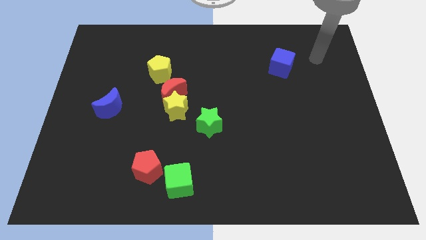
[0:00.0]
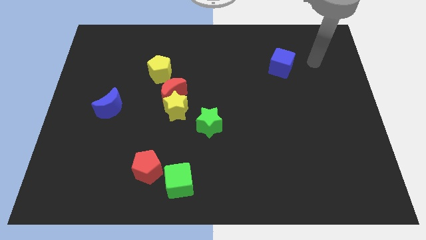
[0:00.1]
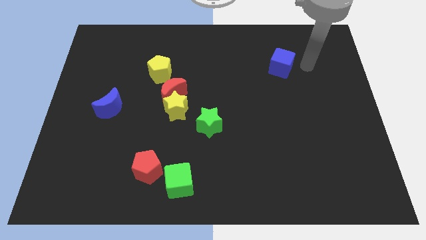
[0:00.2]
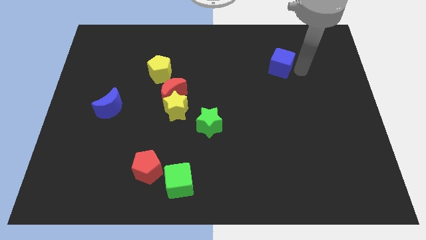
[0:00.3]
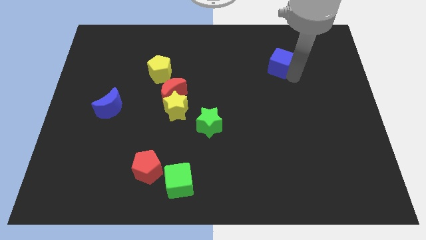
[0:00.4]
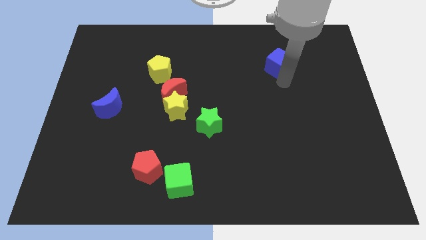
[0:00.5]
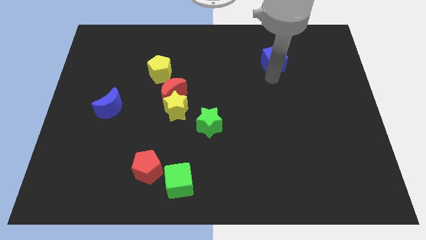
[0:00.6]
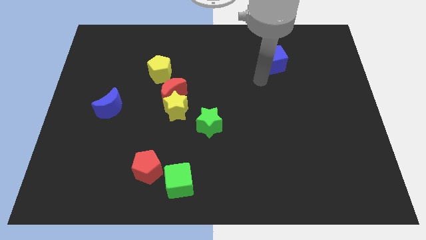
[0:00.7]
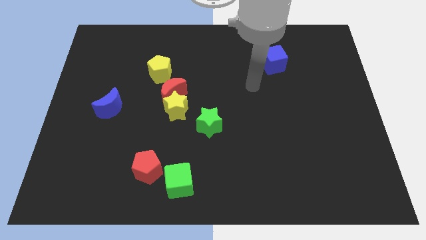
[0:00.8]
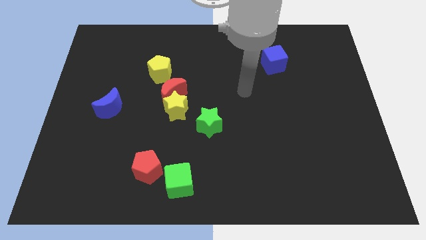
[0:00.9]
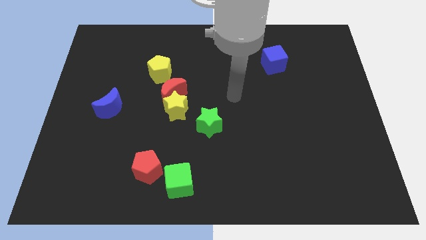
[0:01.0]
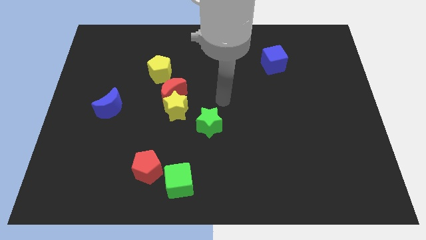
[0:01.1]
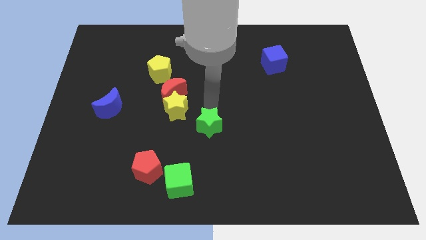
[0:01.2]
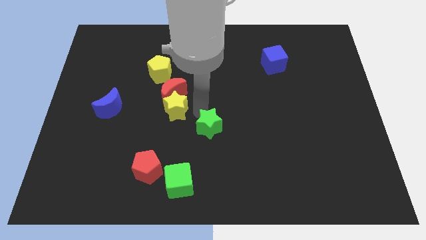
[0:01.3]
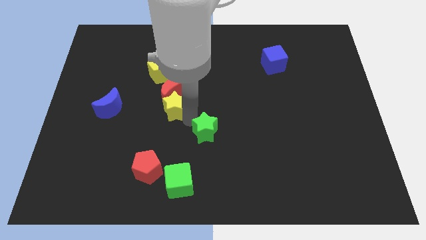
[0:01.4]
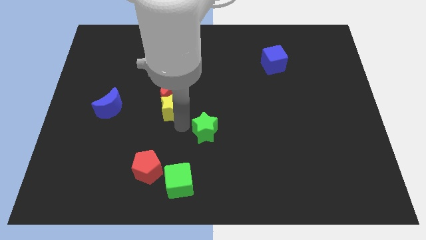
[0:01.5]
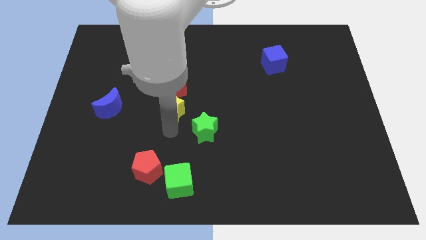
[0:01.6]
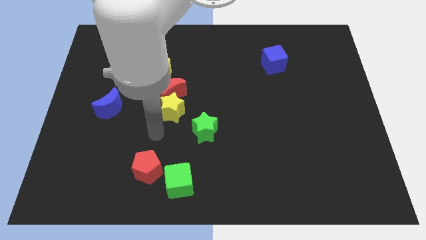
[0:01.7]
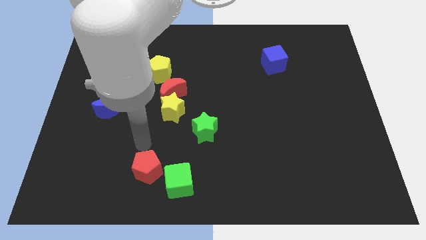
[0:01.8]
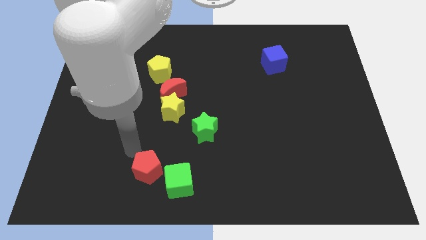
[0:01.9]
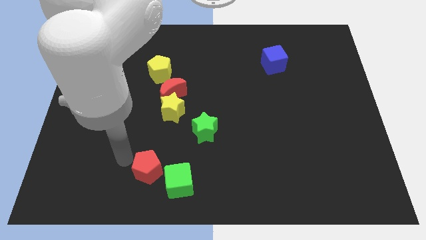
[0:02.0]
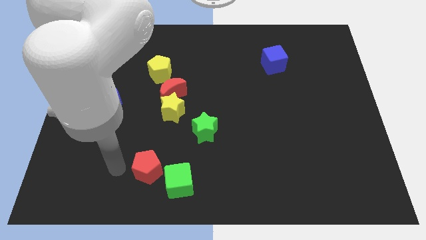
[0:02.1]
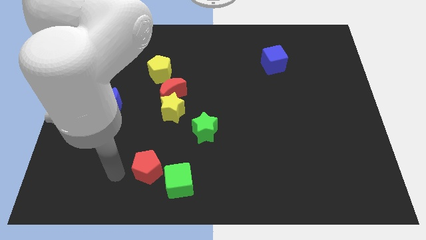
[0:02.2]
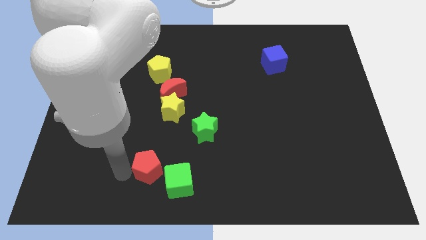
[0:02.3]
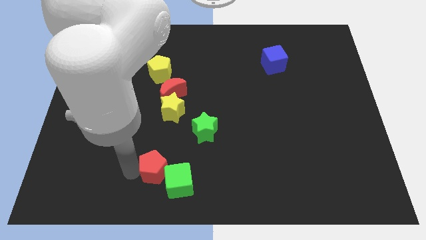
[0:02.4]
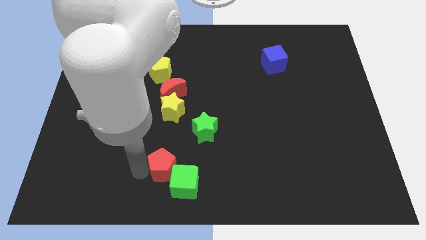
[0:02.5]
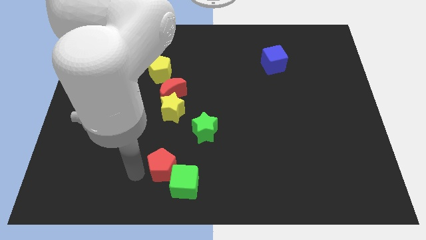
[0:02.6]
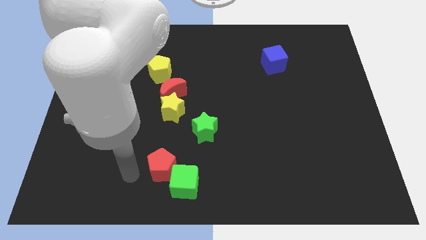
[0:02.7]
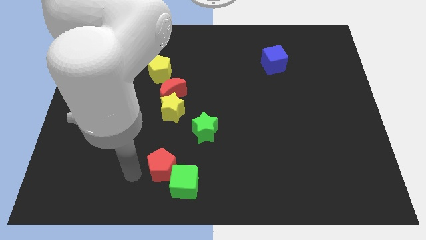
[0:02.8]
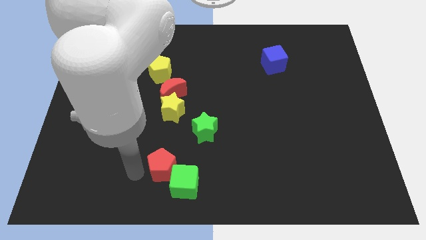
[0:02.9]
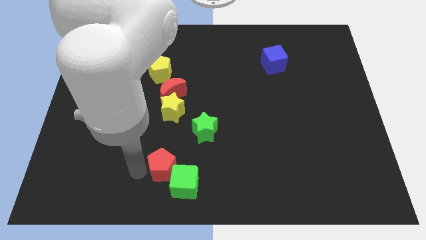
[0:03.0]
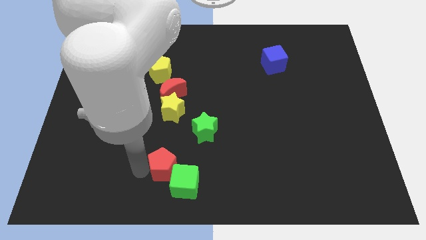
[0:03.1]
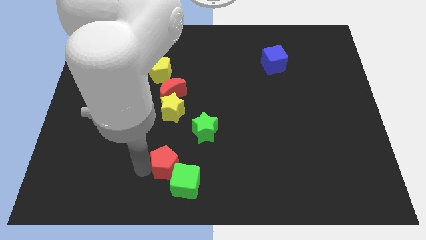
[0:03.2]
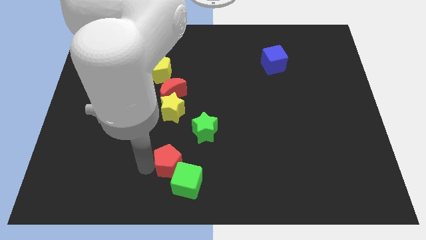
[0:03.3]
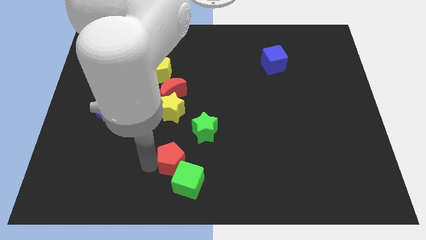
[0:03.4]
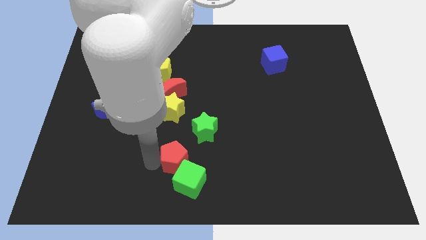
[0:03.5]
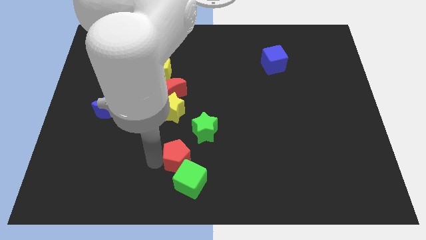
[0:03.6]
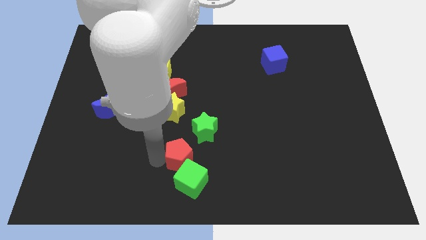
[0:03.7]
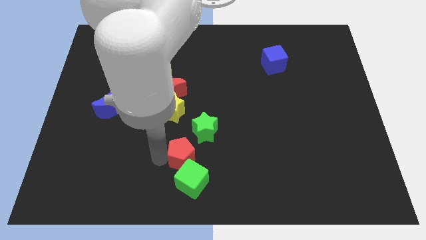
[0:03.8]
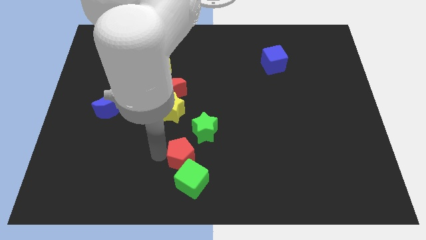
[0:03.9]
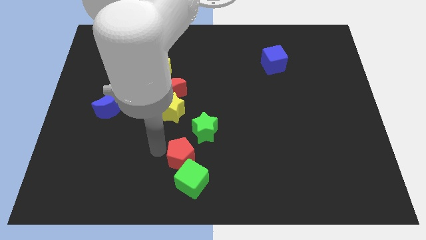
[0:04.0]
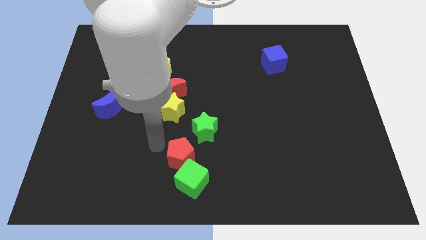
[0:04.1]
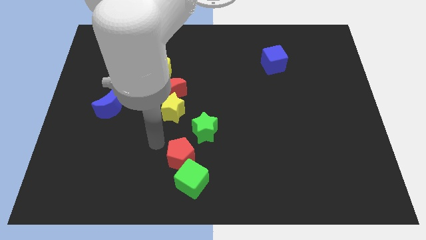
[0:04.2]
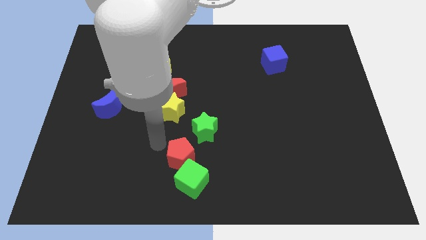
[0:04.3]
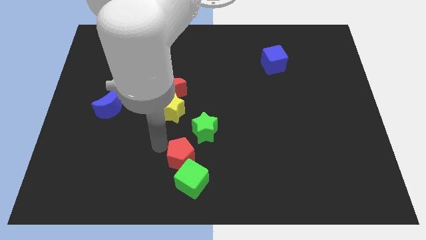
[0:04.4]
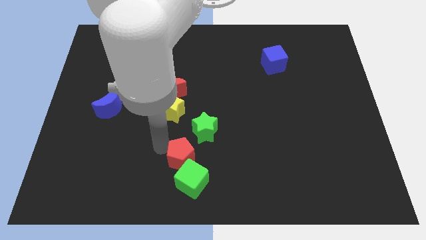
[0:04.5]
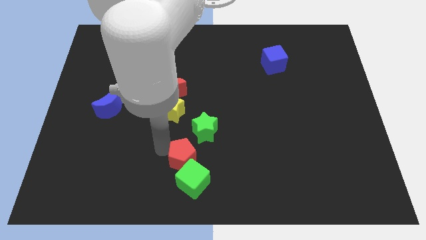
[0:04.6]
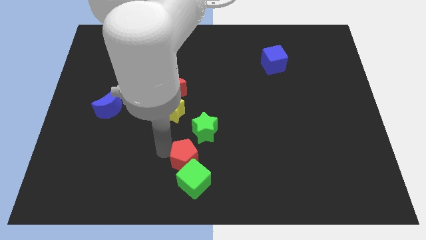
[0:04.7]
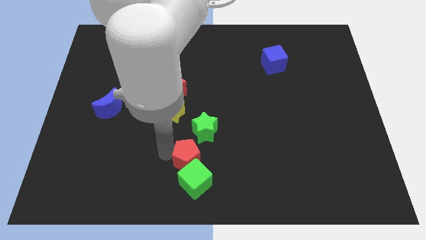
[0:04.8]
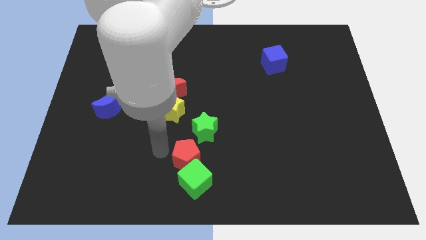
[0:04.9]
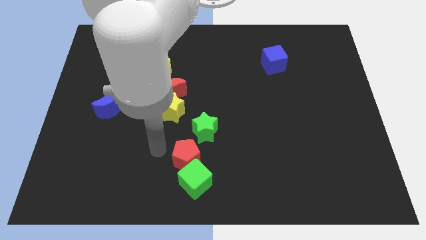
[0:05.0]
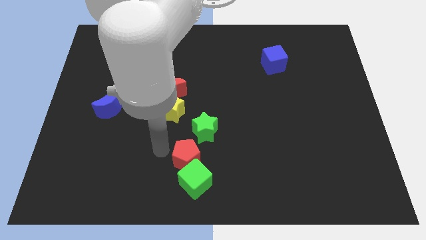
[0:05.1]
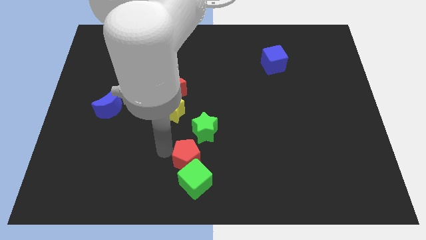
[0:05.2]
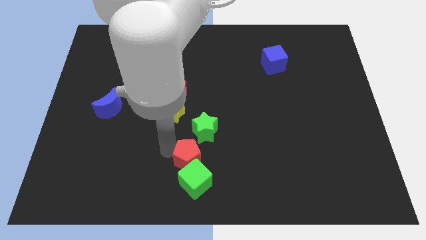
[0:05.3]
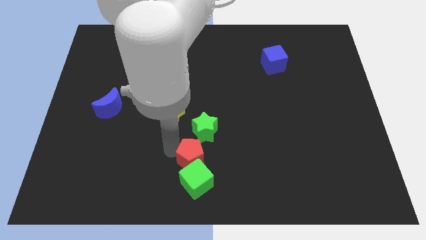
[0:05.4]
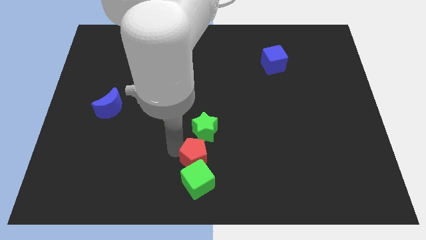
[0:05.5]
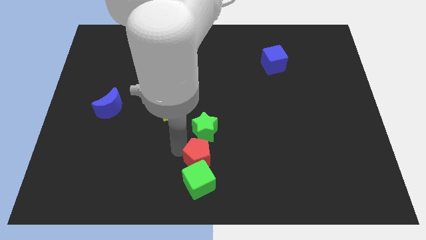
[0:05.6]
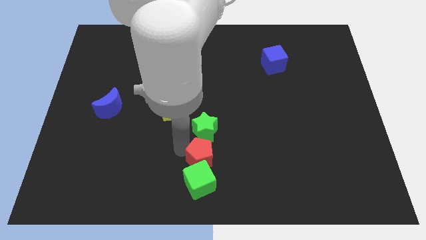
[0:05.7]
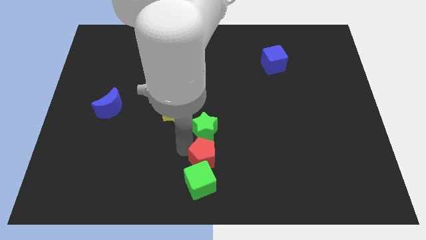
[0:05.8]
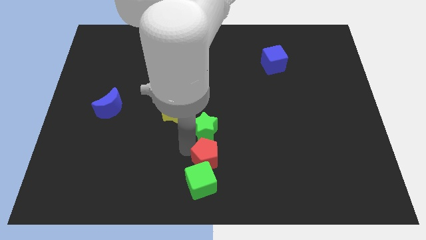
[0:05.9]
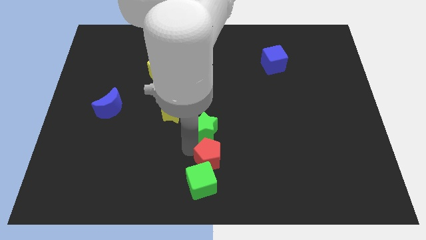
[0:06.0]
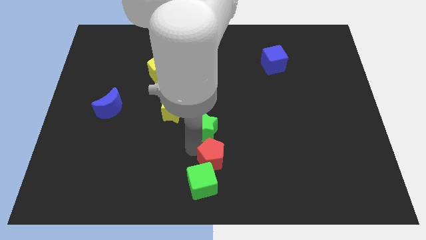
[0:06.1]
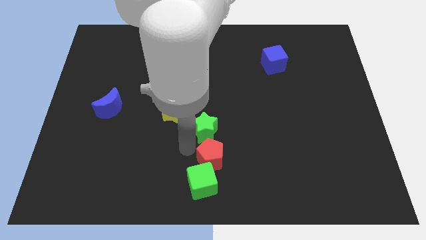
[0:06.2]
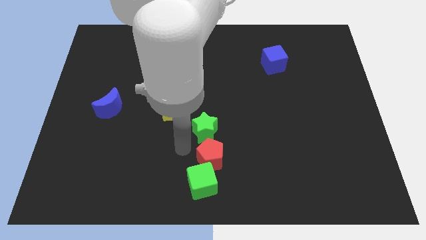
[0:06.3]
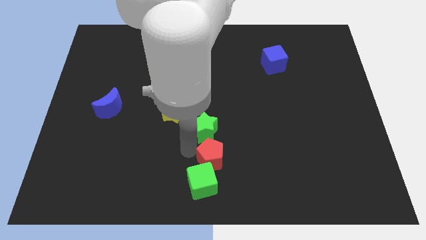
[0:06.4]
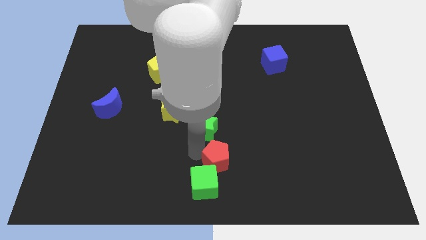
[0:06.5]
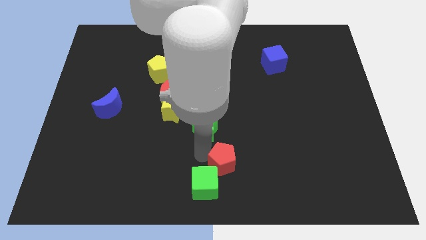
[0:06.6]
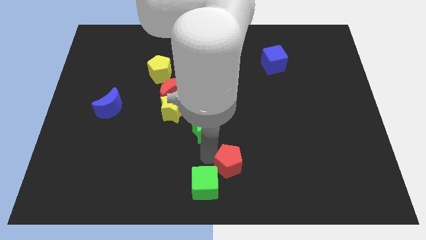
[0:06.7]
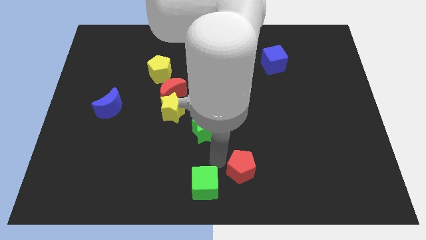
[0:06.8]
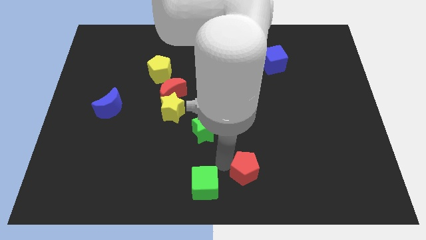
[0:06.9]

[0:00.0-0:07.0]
move the red pentagon right

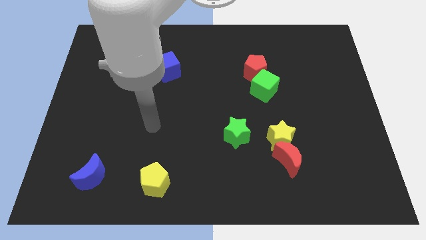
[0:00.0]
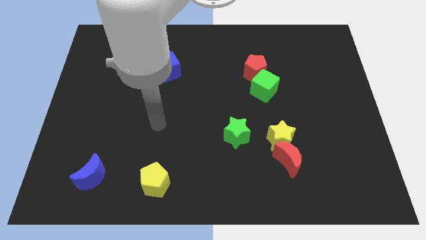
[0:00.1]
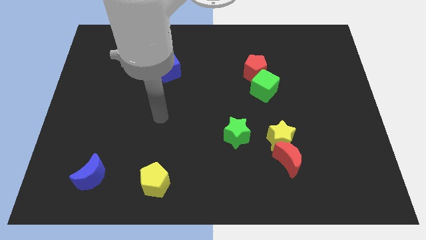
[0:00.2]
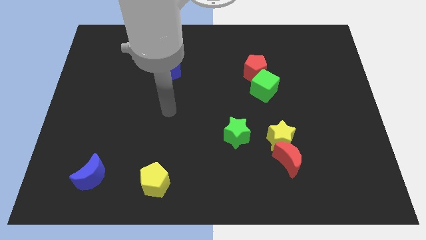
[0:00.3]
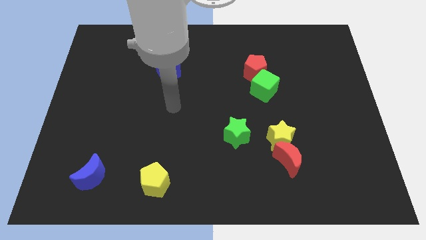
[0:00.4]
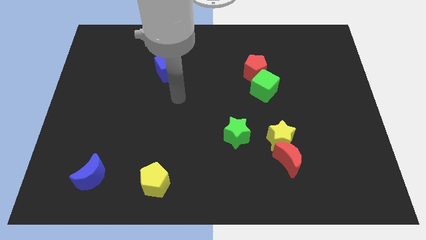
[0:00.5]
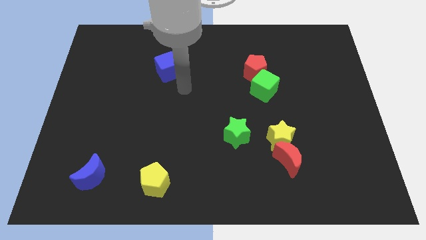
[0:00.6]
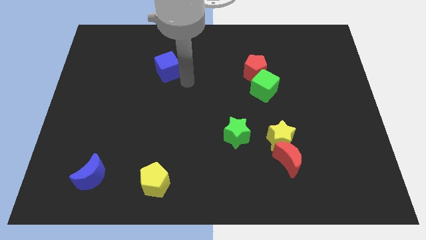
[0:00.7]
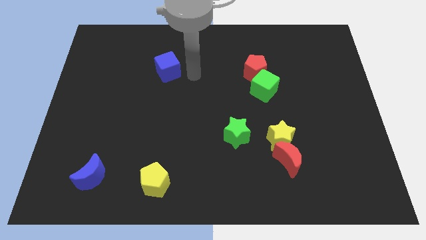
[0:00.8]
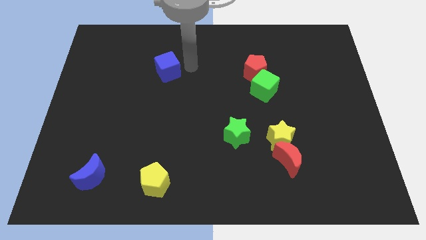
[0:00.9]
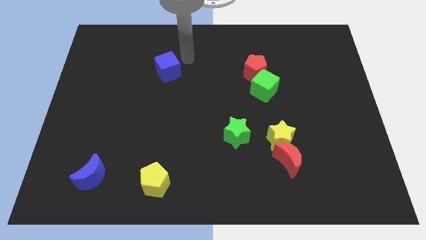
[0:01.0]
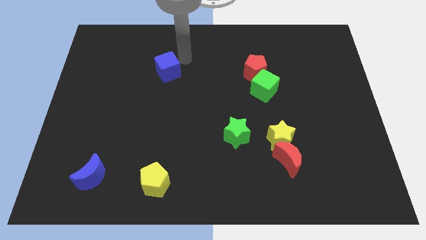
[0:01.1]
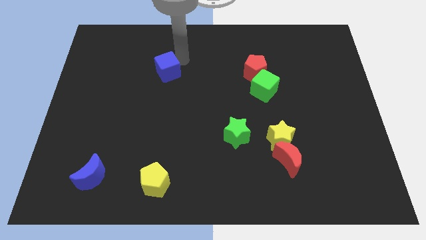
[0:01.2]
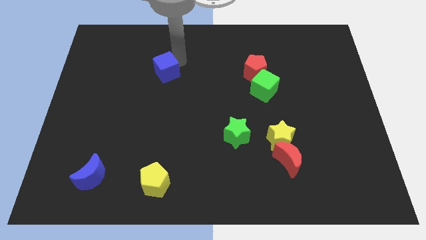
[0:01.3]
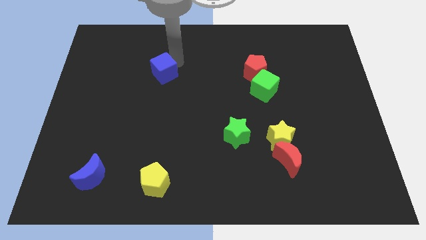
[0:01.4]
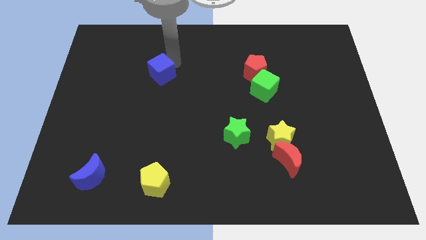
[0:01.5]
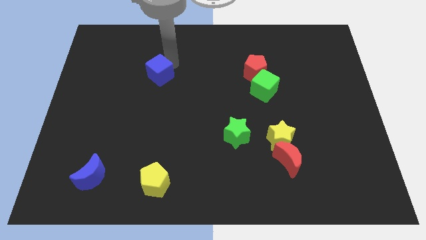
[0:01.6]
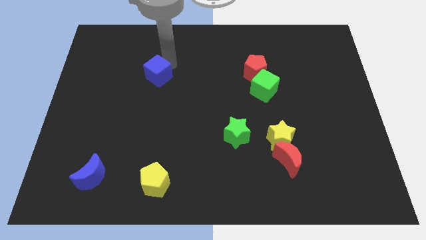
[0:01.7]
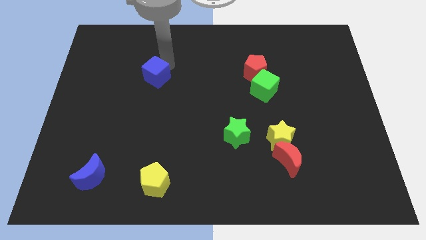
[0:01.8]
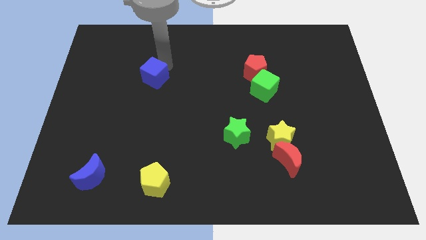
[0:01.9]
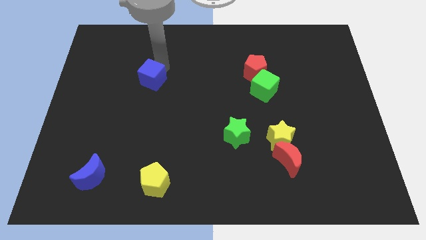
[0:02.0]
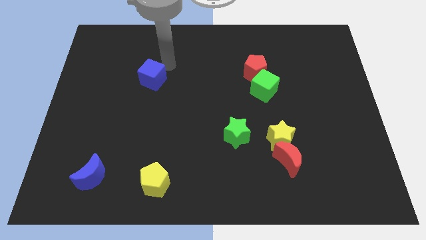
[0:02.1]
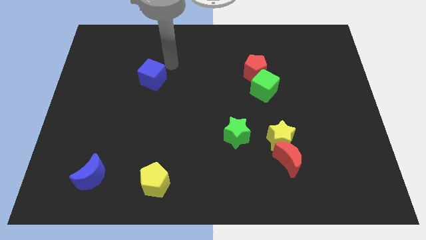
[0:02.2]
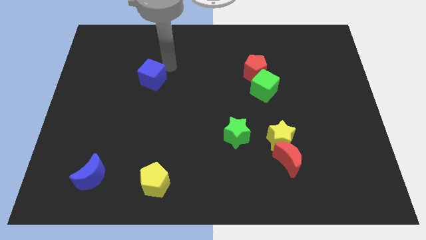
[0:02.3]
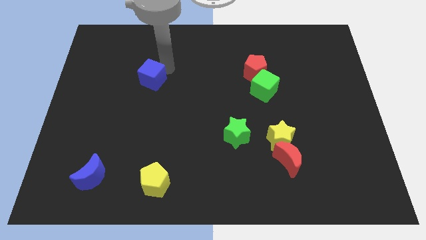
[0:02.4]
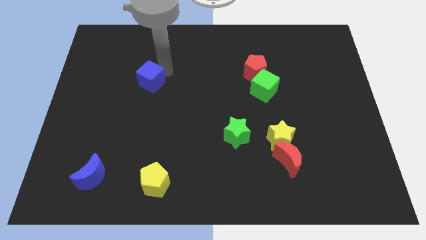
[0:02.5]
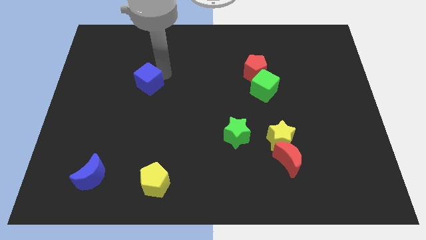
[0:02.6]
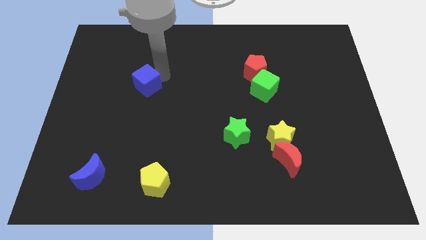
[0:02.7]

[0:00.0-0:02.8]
push the blue cube diagonally down and left slightly
